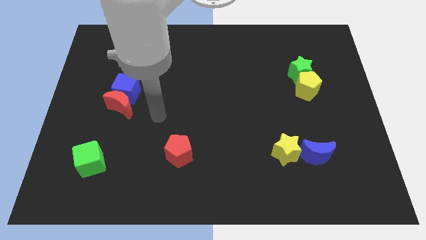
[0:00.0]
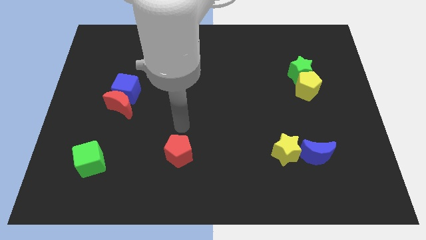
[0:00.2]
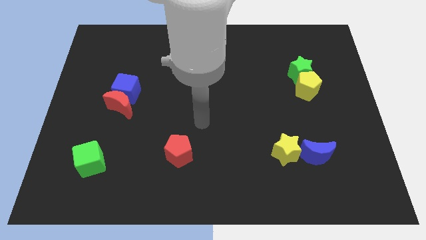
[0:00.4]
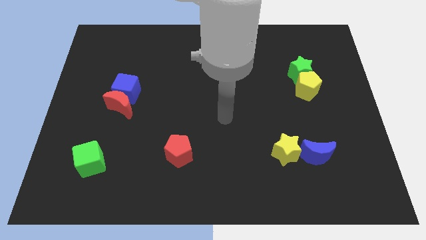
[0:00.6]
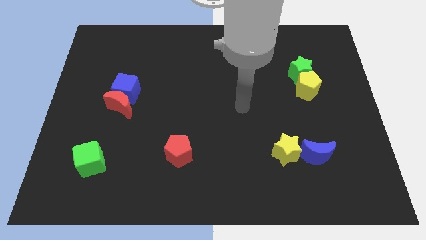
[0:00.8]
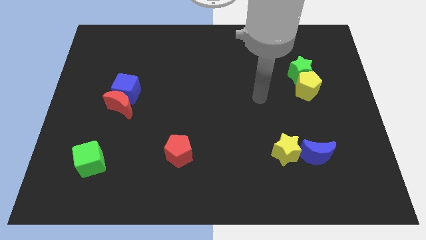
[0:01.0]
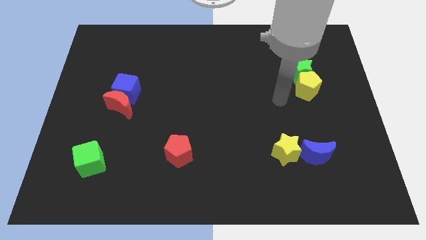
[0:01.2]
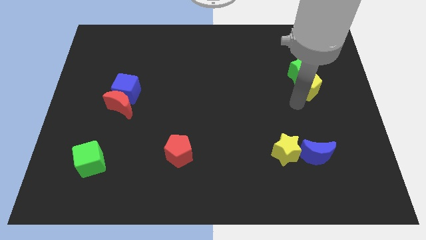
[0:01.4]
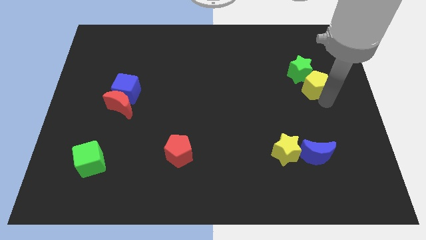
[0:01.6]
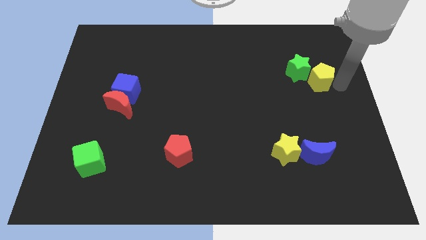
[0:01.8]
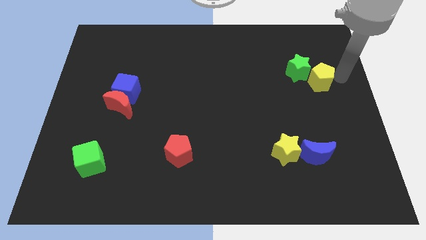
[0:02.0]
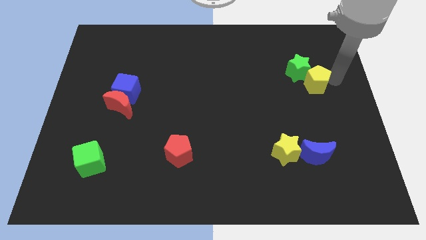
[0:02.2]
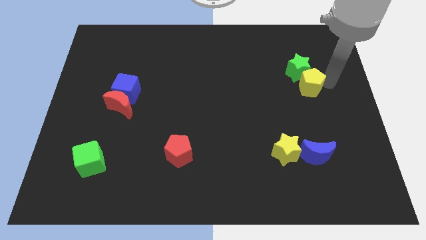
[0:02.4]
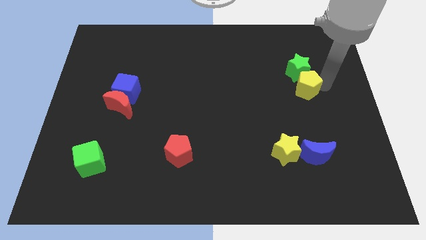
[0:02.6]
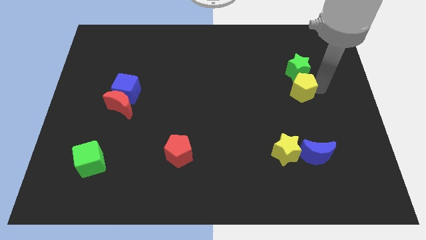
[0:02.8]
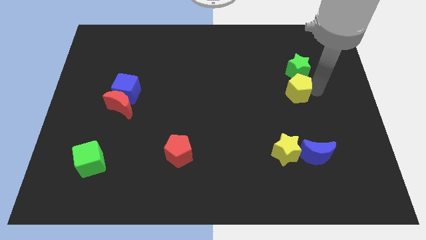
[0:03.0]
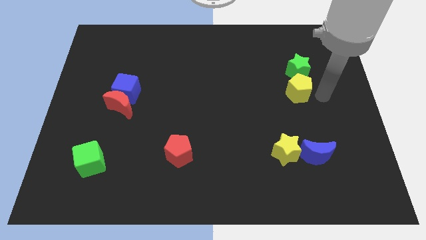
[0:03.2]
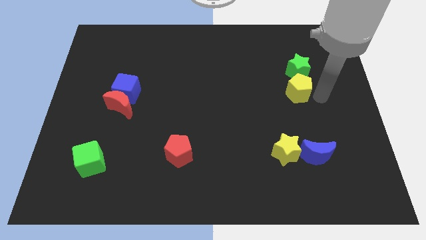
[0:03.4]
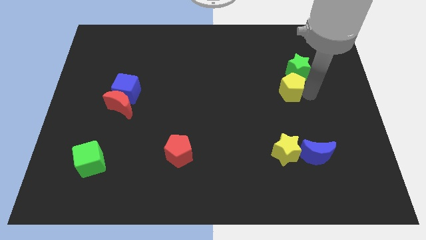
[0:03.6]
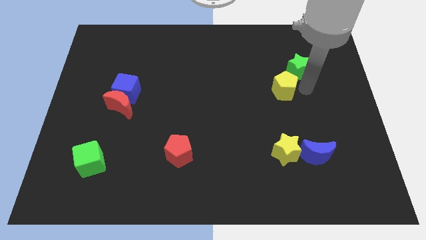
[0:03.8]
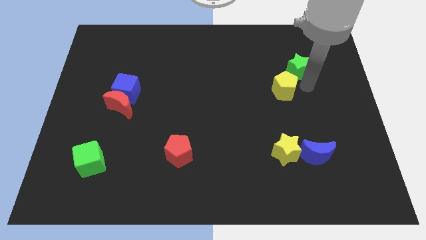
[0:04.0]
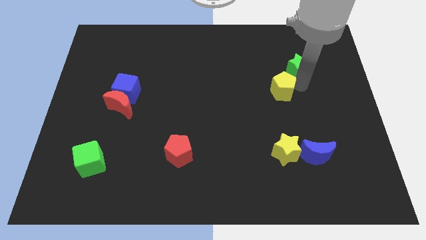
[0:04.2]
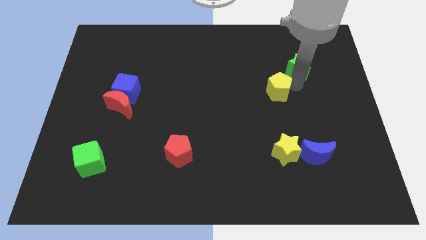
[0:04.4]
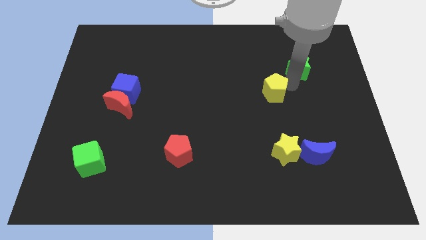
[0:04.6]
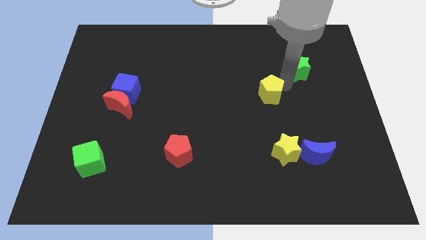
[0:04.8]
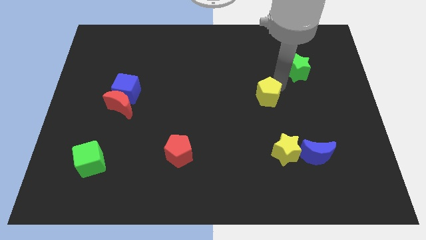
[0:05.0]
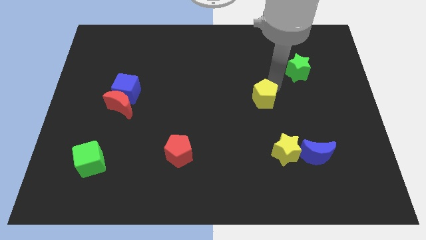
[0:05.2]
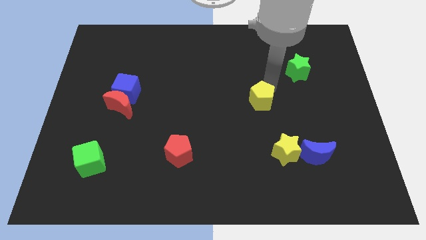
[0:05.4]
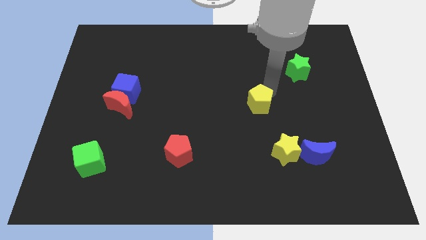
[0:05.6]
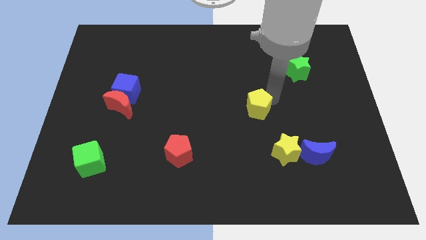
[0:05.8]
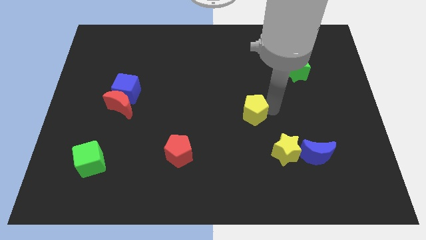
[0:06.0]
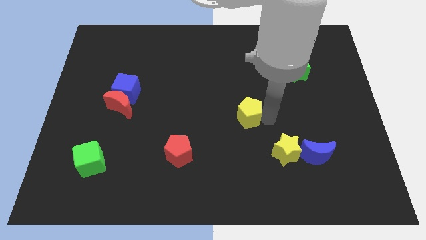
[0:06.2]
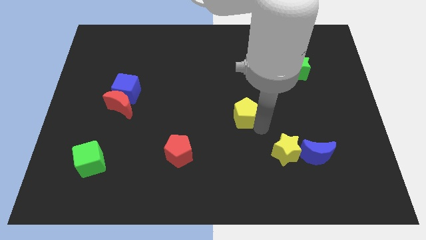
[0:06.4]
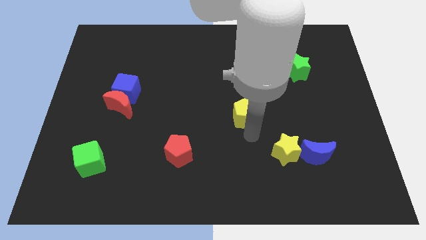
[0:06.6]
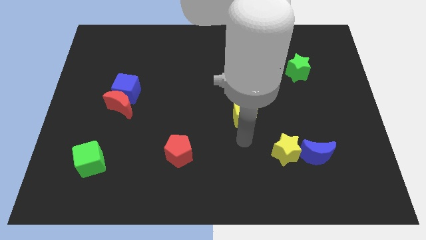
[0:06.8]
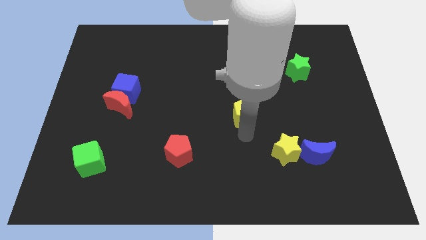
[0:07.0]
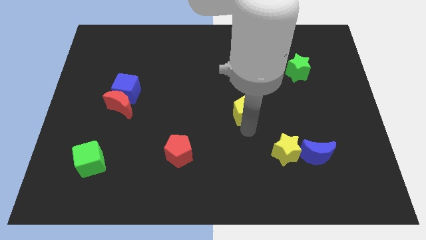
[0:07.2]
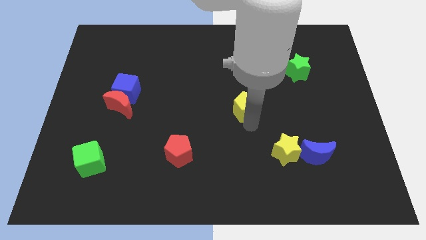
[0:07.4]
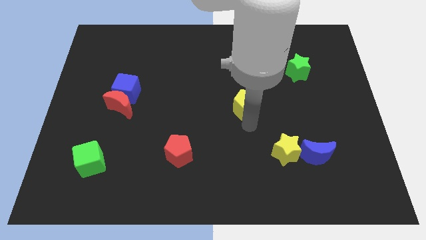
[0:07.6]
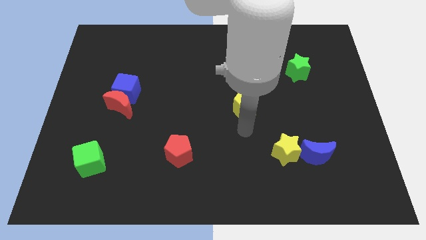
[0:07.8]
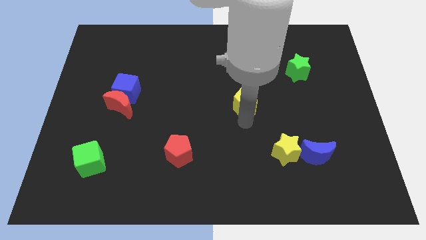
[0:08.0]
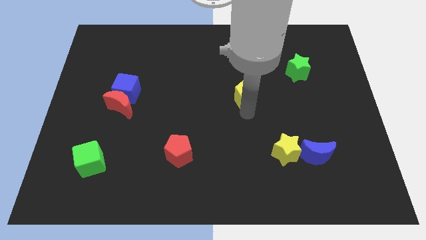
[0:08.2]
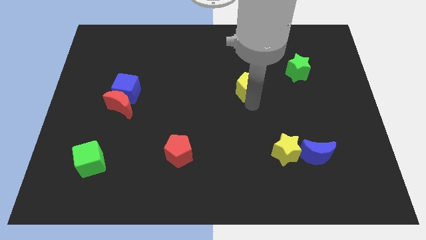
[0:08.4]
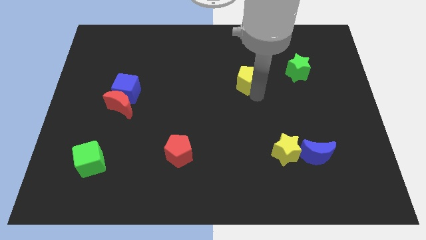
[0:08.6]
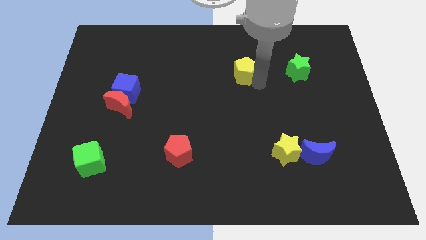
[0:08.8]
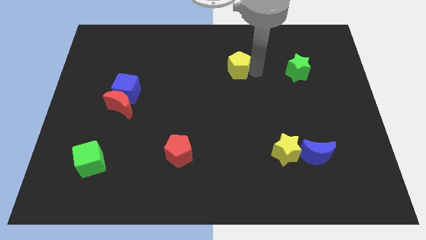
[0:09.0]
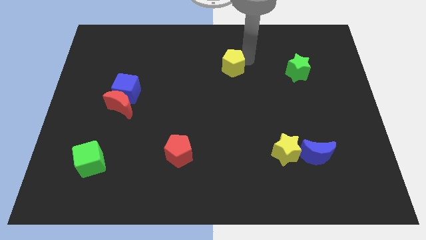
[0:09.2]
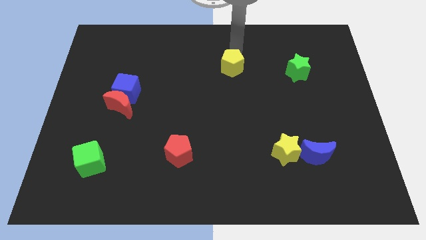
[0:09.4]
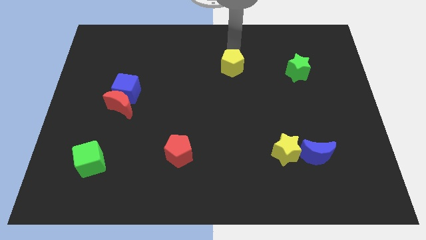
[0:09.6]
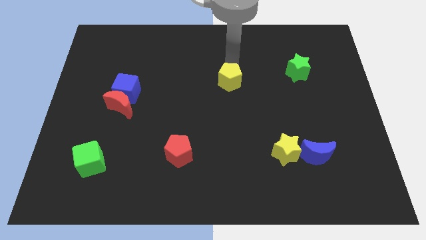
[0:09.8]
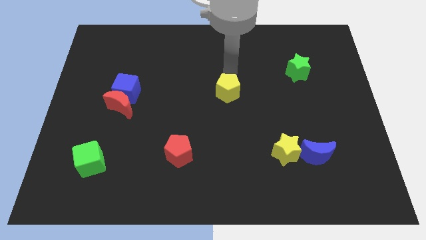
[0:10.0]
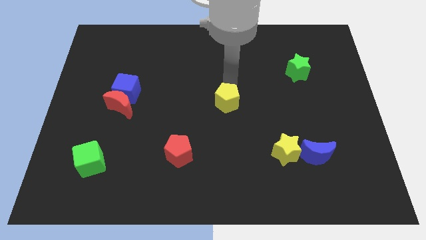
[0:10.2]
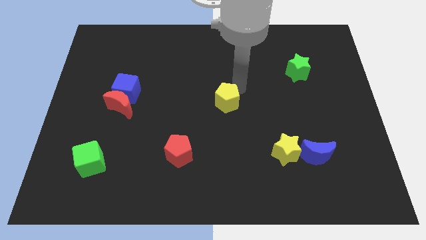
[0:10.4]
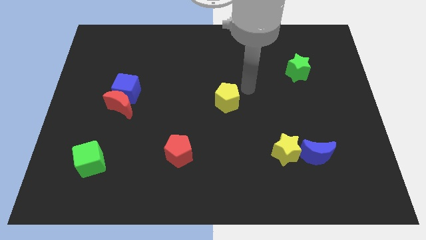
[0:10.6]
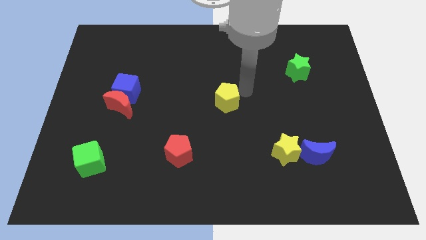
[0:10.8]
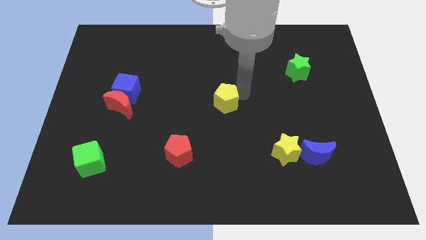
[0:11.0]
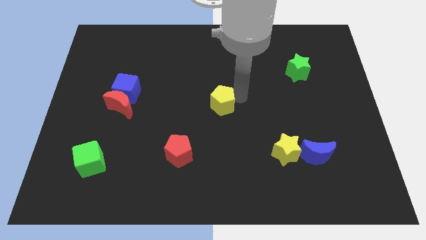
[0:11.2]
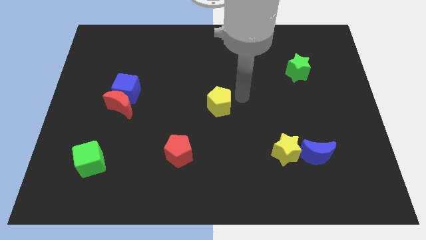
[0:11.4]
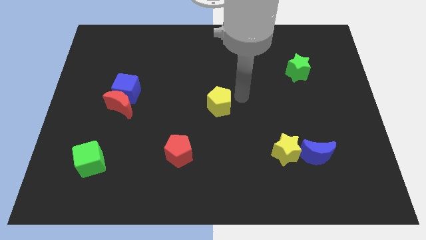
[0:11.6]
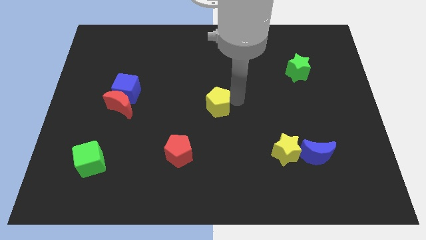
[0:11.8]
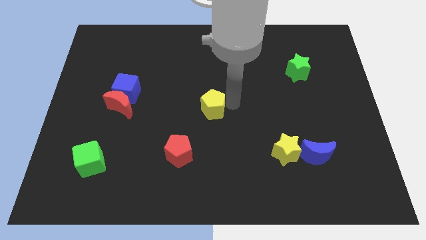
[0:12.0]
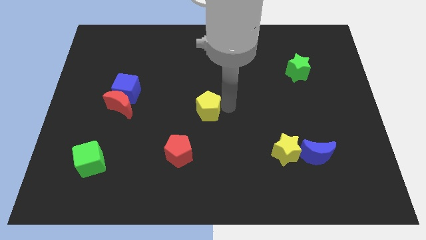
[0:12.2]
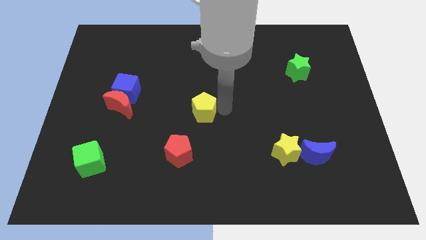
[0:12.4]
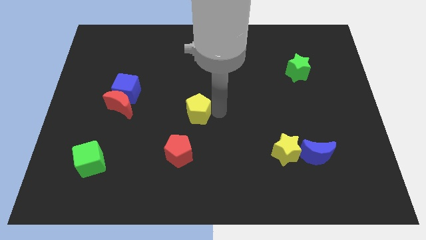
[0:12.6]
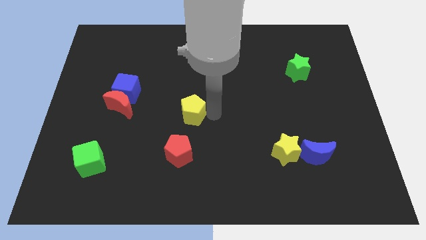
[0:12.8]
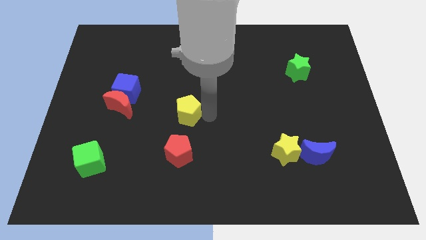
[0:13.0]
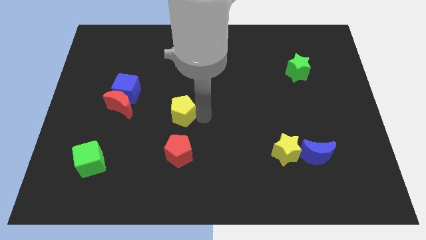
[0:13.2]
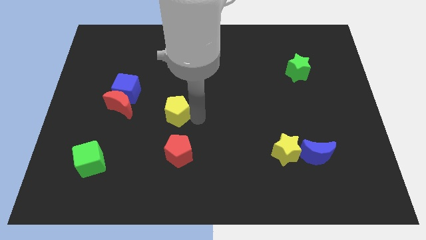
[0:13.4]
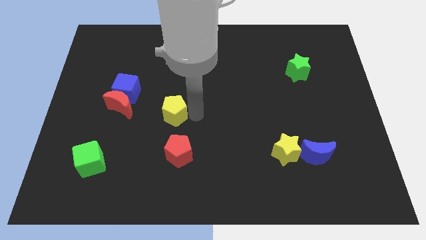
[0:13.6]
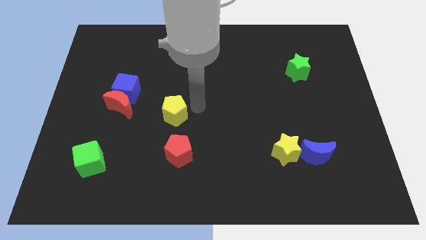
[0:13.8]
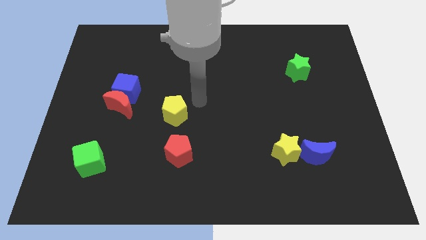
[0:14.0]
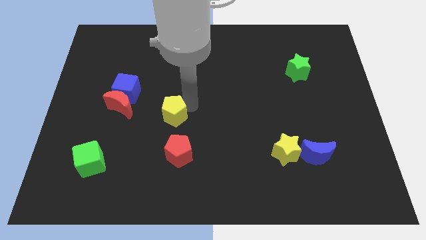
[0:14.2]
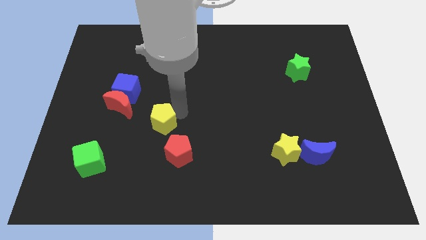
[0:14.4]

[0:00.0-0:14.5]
move the yellow pentagon to the bottom right side of the red moon
